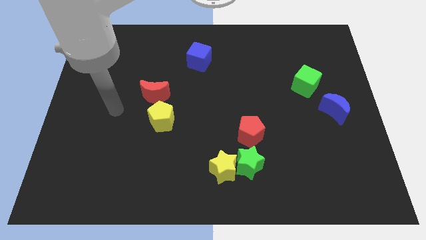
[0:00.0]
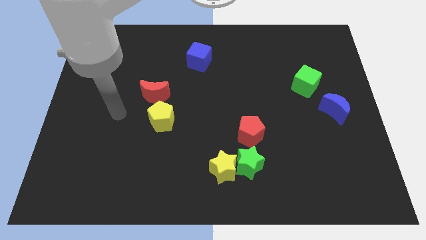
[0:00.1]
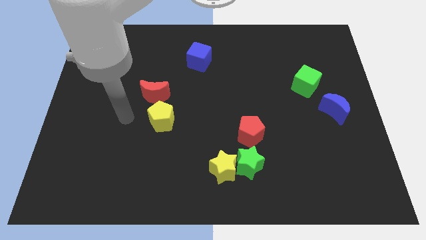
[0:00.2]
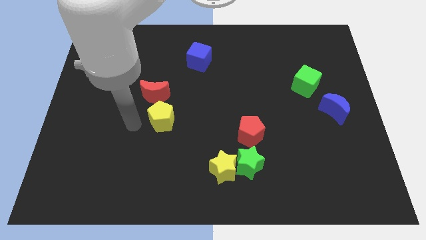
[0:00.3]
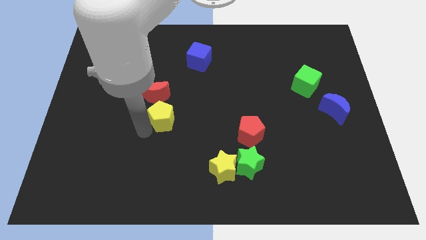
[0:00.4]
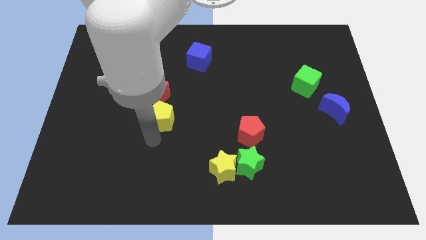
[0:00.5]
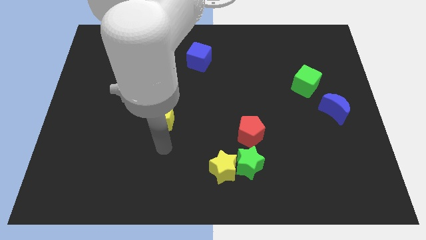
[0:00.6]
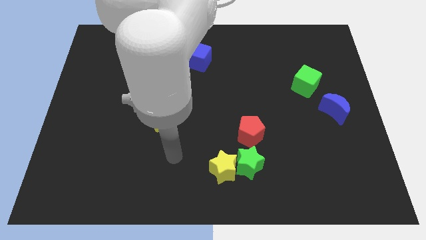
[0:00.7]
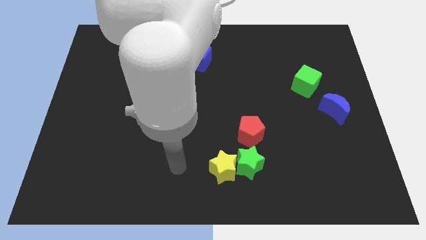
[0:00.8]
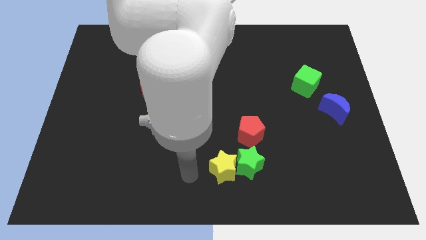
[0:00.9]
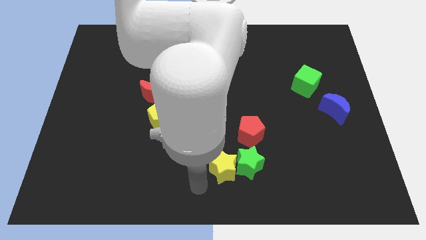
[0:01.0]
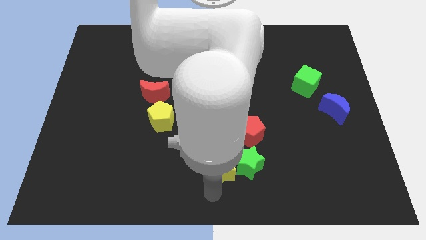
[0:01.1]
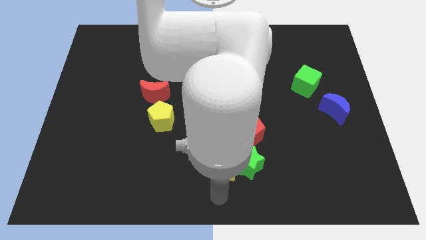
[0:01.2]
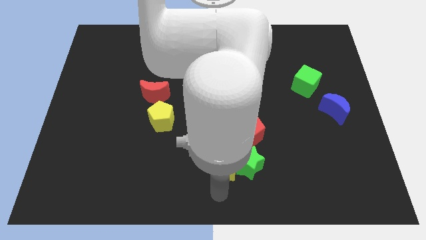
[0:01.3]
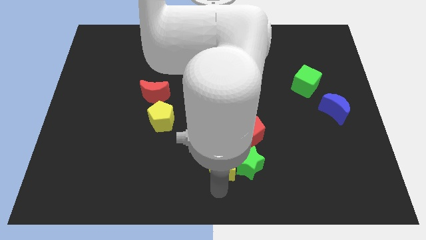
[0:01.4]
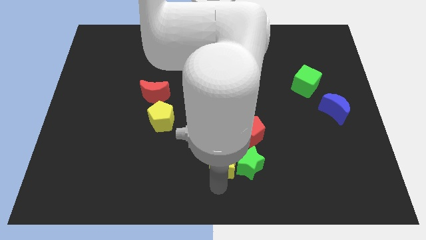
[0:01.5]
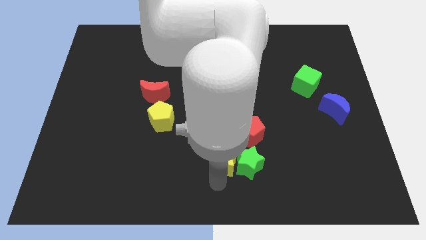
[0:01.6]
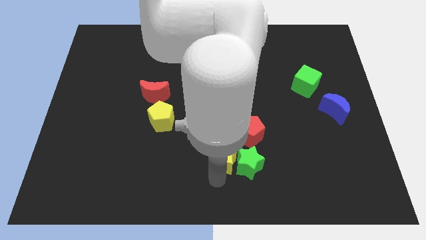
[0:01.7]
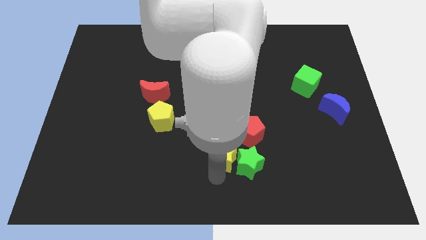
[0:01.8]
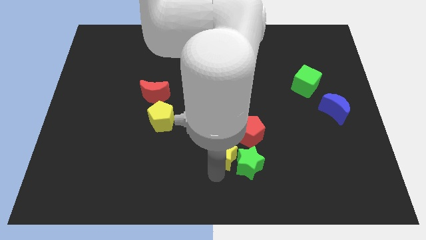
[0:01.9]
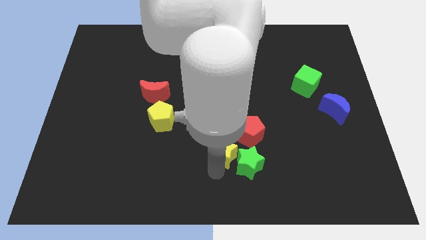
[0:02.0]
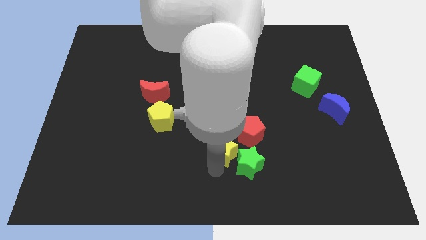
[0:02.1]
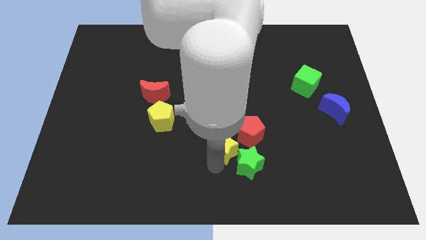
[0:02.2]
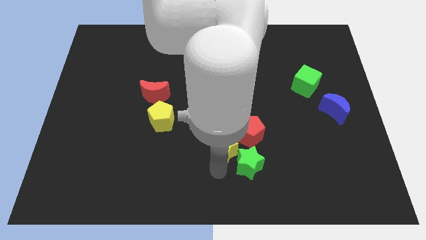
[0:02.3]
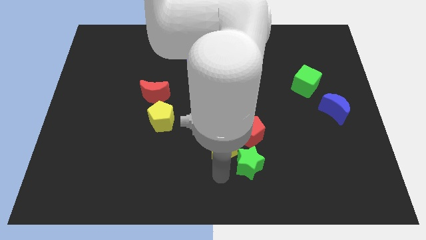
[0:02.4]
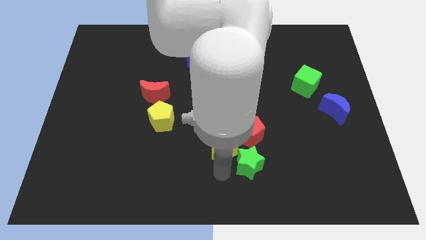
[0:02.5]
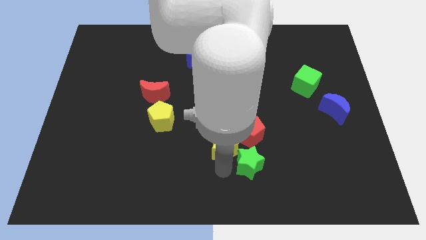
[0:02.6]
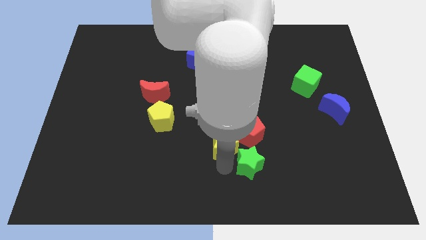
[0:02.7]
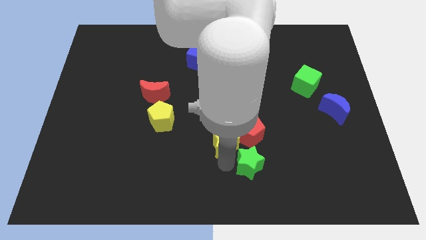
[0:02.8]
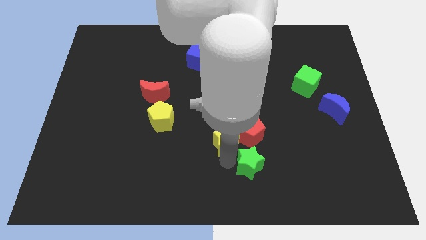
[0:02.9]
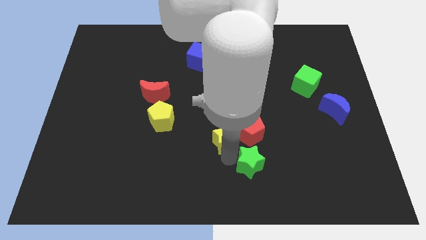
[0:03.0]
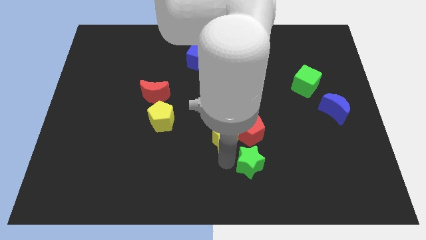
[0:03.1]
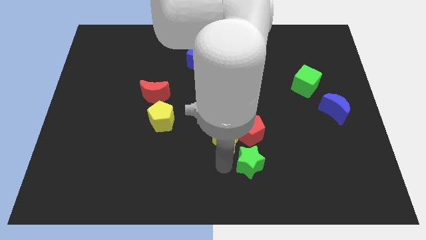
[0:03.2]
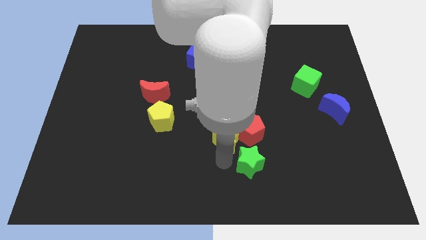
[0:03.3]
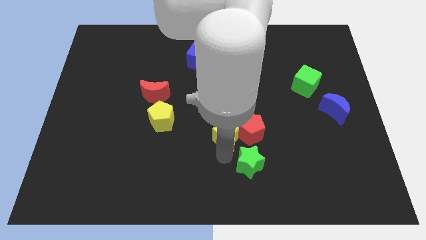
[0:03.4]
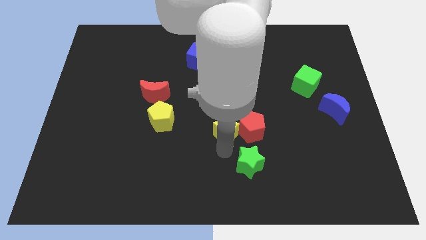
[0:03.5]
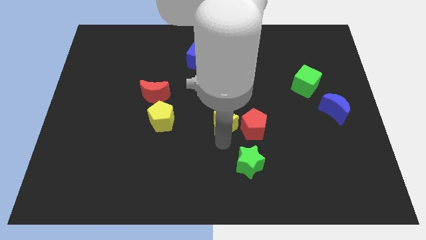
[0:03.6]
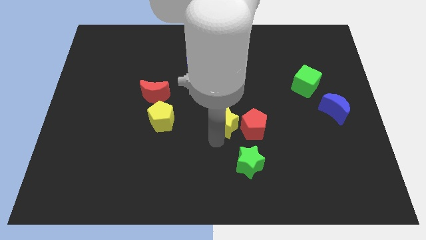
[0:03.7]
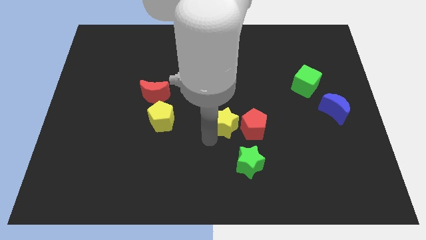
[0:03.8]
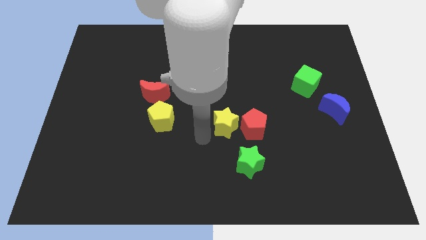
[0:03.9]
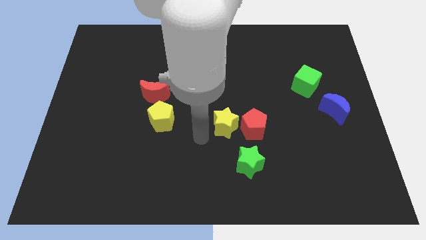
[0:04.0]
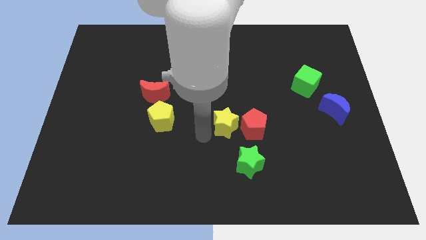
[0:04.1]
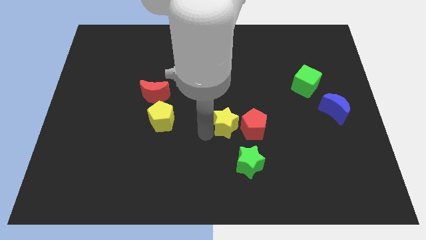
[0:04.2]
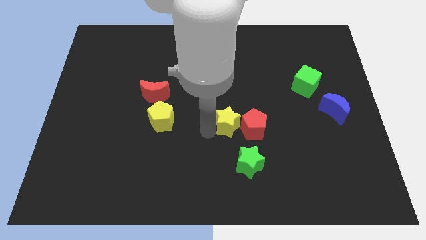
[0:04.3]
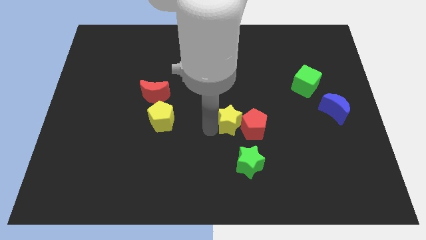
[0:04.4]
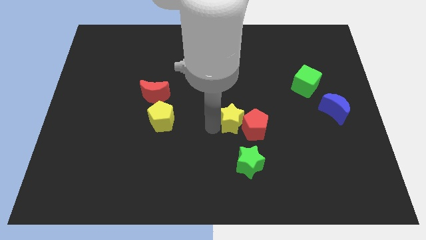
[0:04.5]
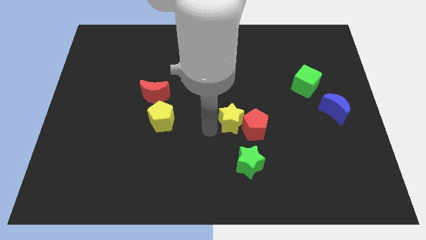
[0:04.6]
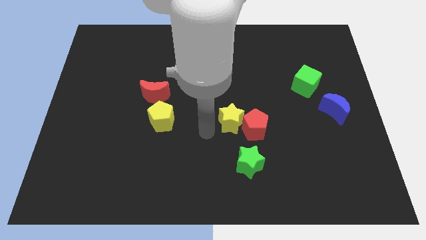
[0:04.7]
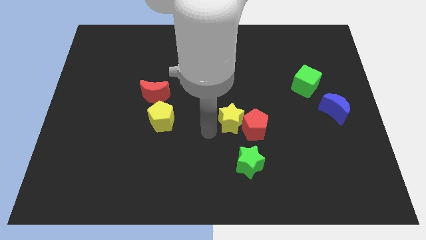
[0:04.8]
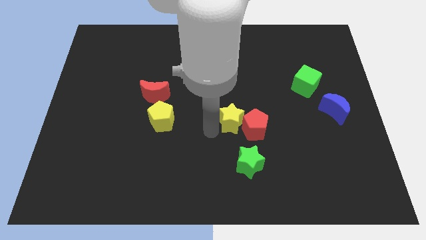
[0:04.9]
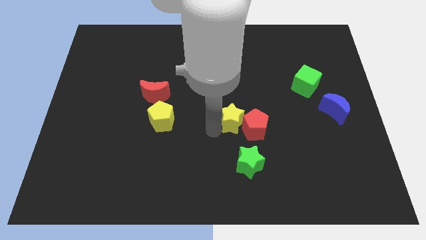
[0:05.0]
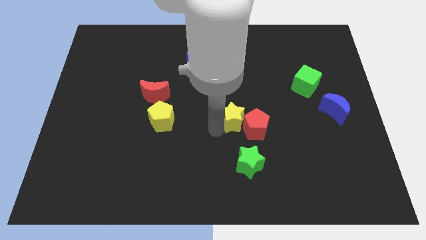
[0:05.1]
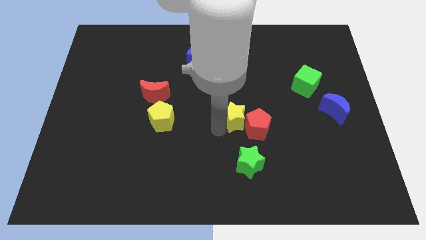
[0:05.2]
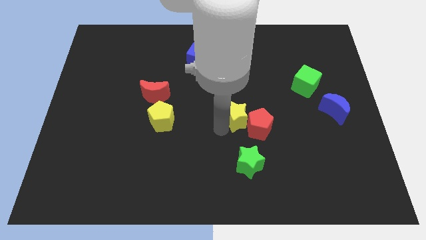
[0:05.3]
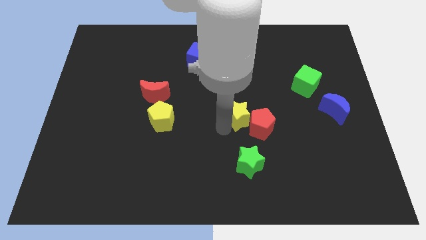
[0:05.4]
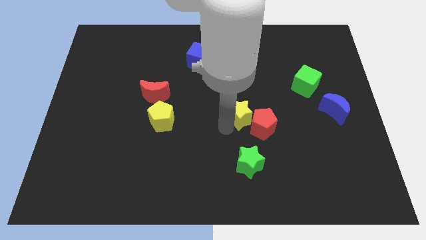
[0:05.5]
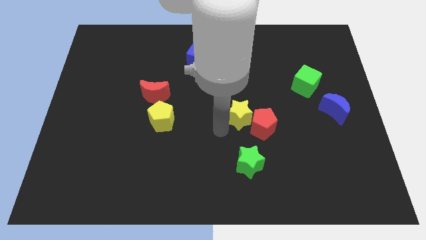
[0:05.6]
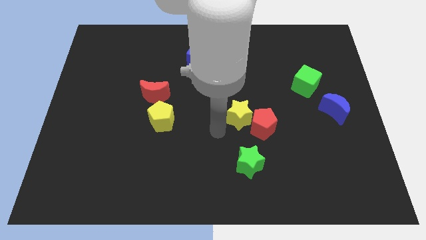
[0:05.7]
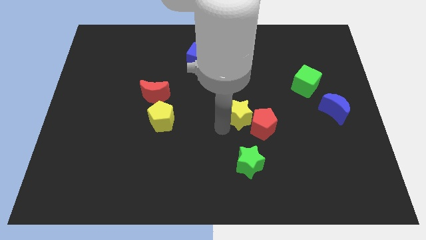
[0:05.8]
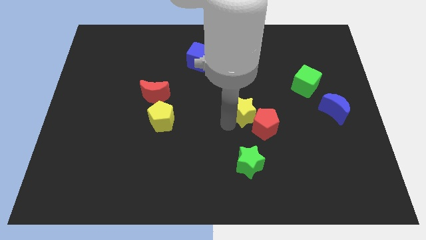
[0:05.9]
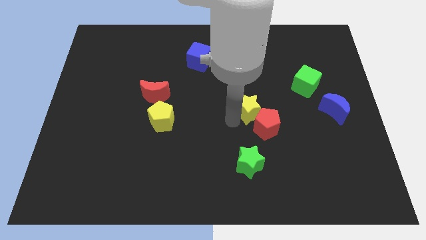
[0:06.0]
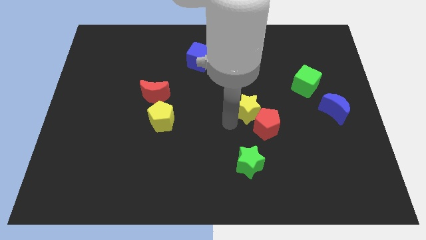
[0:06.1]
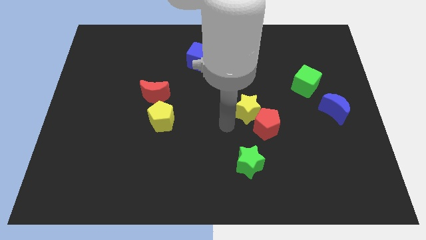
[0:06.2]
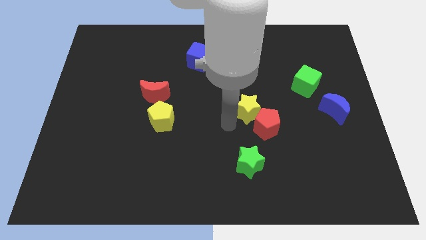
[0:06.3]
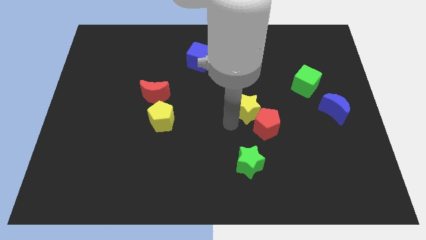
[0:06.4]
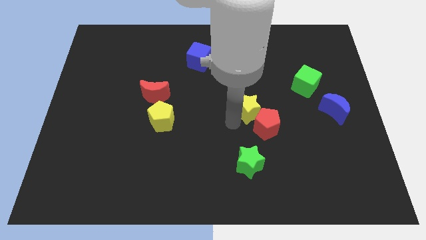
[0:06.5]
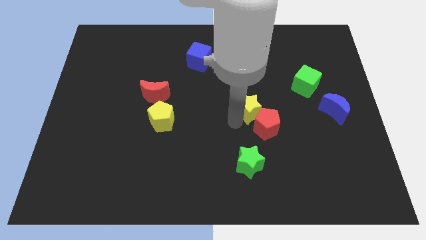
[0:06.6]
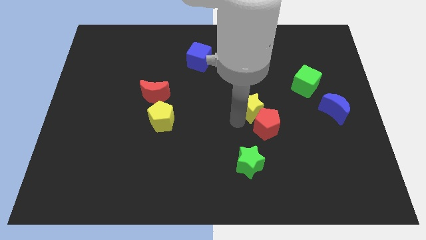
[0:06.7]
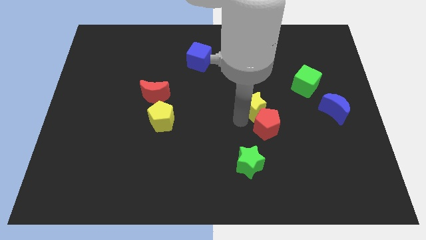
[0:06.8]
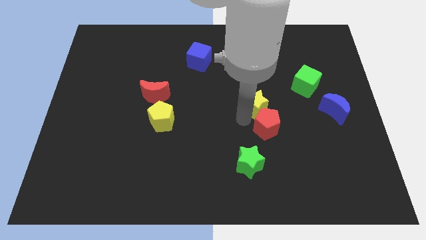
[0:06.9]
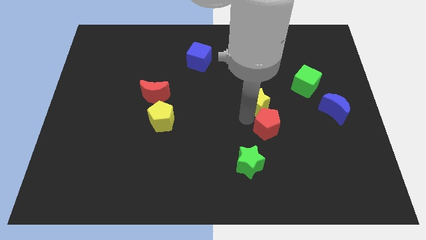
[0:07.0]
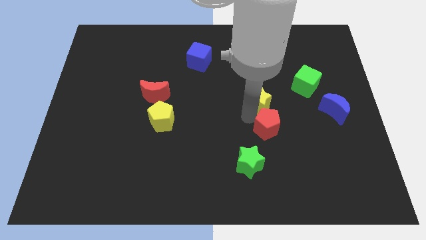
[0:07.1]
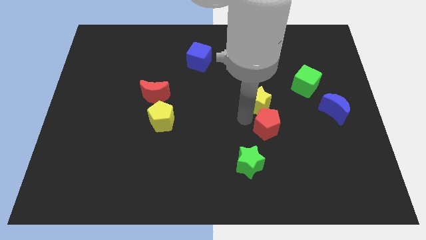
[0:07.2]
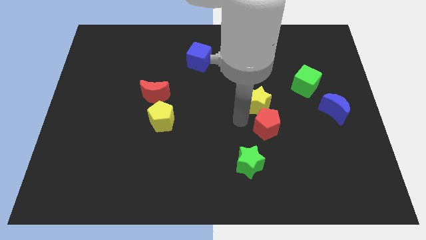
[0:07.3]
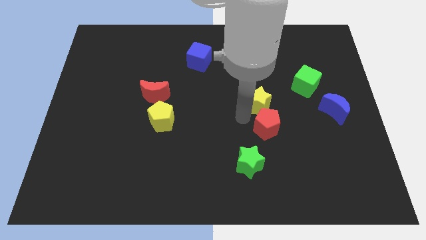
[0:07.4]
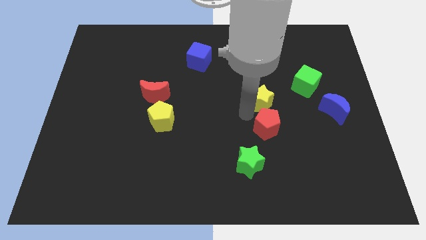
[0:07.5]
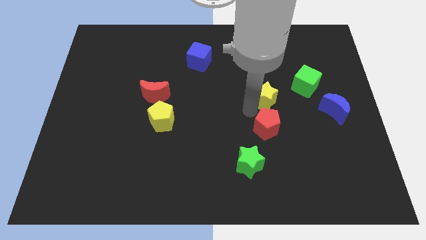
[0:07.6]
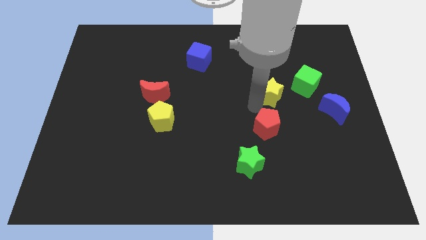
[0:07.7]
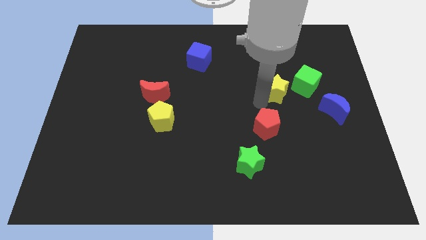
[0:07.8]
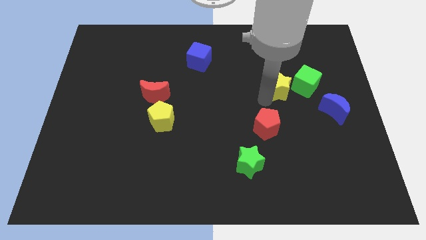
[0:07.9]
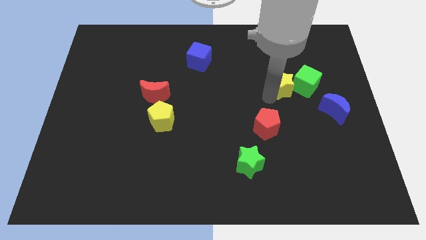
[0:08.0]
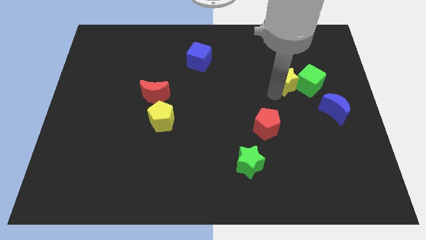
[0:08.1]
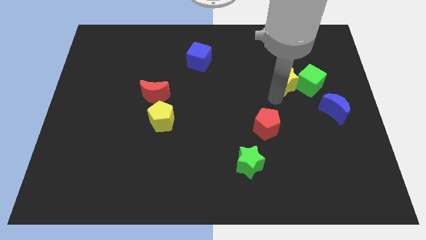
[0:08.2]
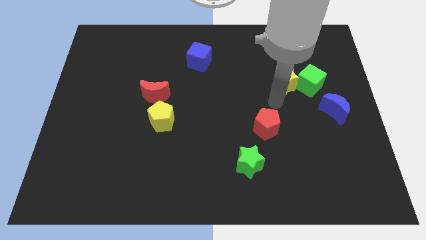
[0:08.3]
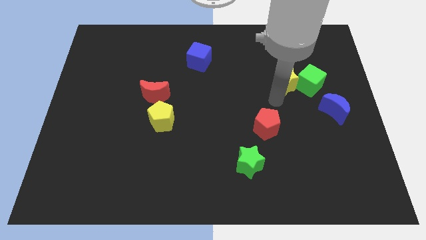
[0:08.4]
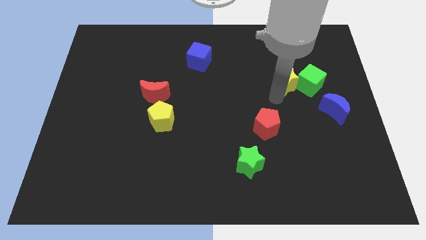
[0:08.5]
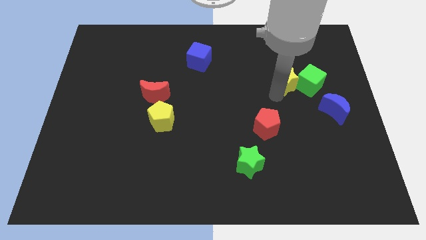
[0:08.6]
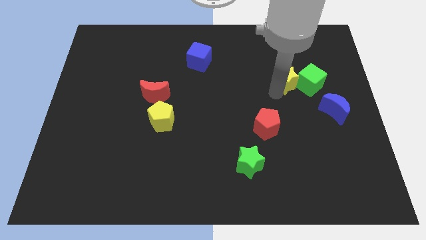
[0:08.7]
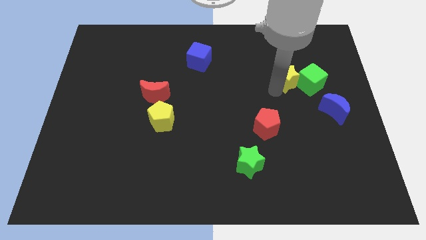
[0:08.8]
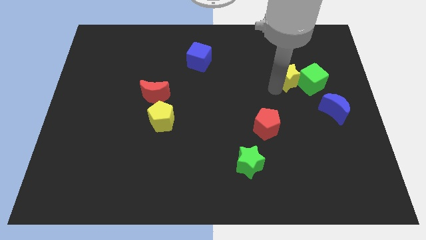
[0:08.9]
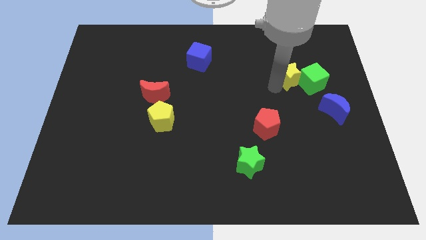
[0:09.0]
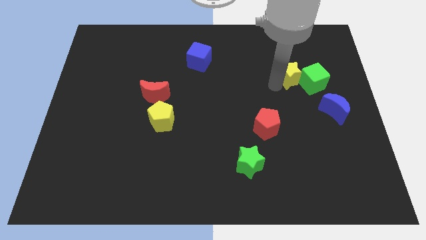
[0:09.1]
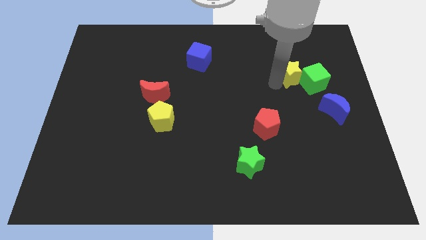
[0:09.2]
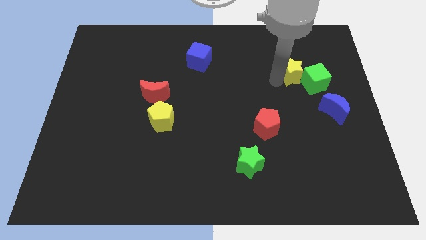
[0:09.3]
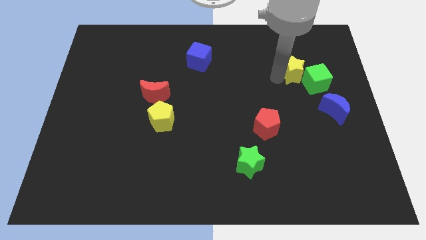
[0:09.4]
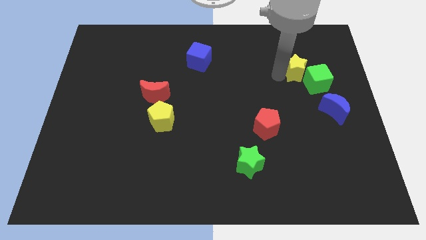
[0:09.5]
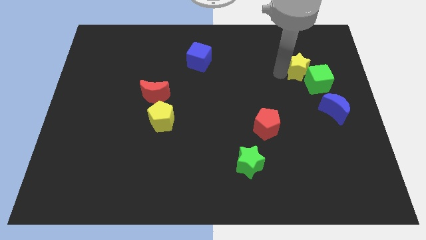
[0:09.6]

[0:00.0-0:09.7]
put the yellow star above the green cube
